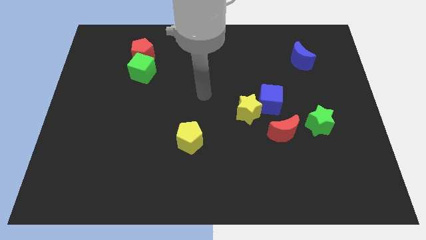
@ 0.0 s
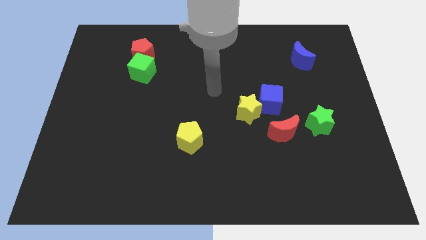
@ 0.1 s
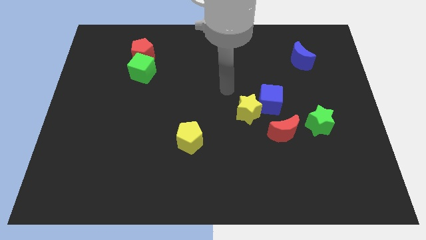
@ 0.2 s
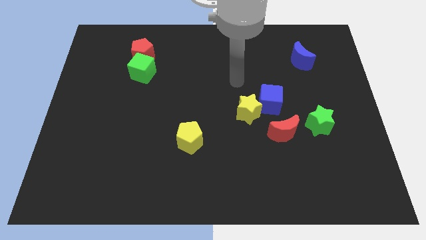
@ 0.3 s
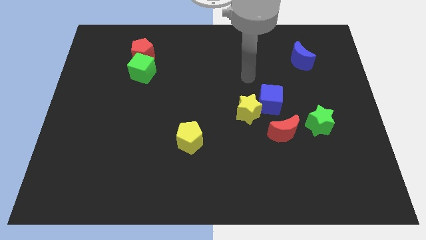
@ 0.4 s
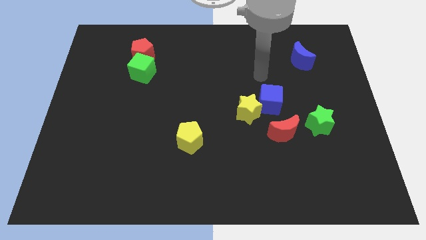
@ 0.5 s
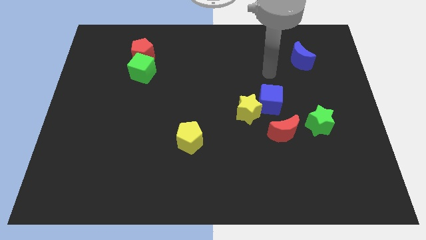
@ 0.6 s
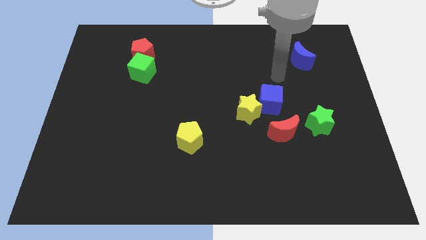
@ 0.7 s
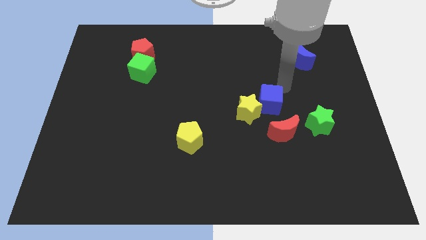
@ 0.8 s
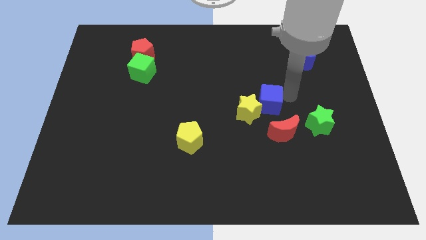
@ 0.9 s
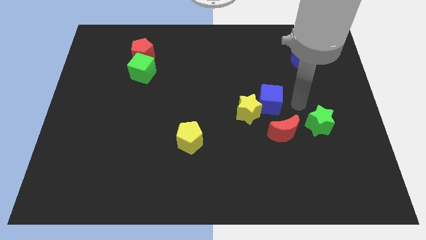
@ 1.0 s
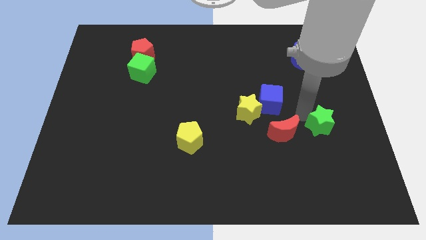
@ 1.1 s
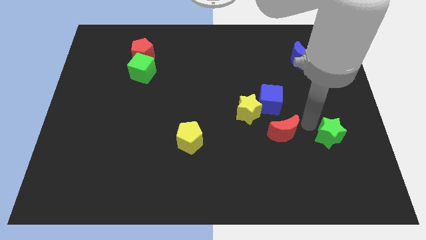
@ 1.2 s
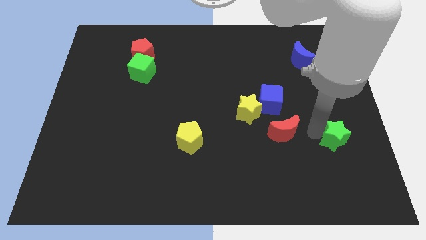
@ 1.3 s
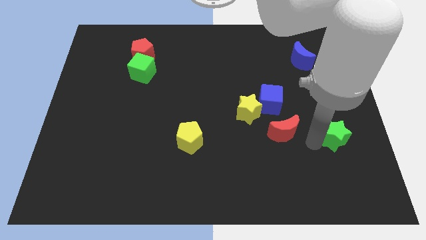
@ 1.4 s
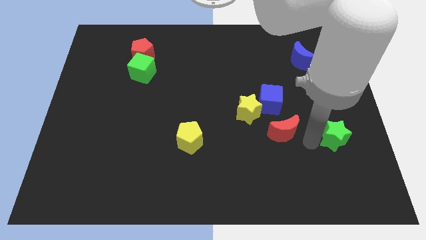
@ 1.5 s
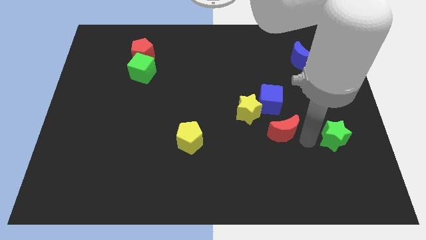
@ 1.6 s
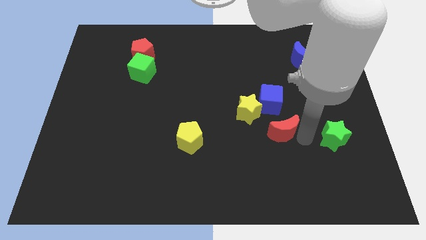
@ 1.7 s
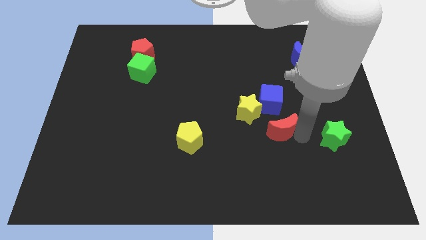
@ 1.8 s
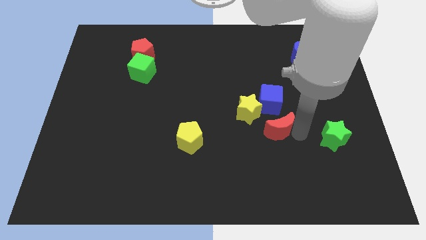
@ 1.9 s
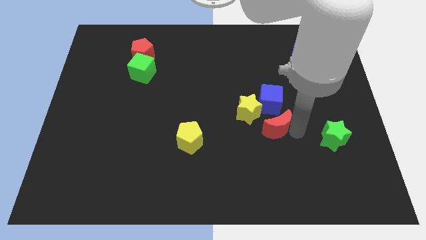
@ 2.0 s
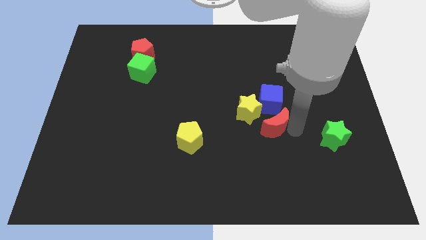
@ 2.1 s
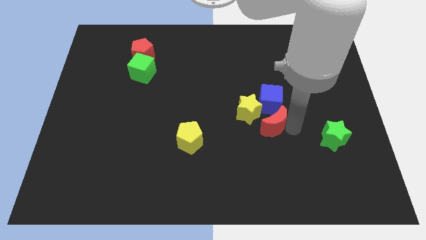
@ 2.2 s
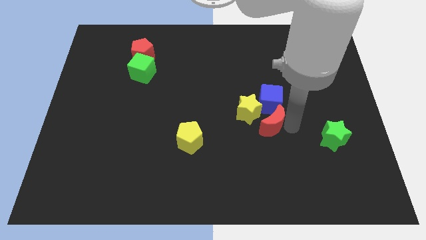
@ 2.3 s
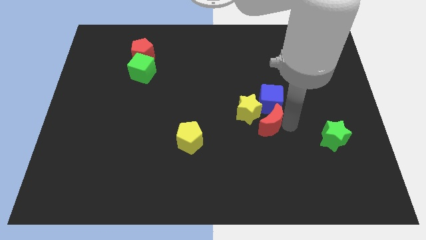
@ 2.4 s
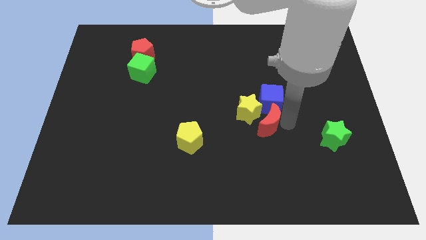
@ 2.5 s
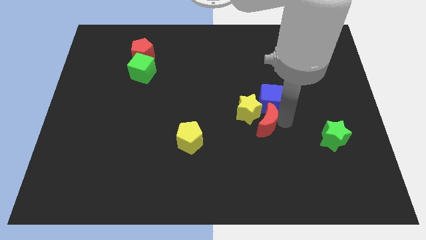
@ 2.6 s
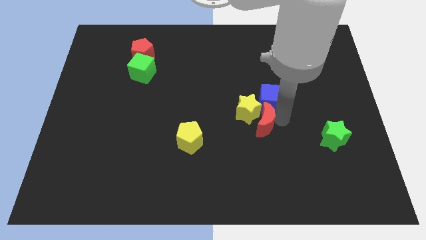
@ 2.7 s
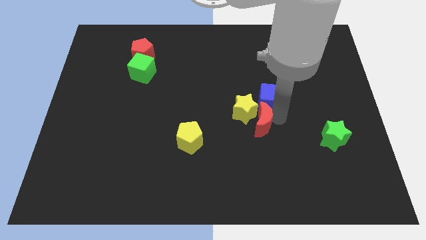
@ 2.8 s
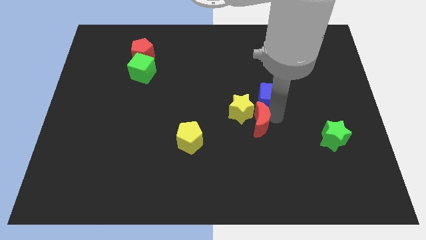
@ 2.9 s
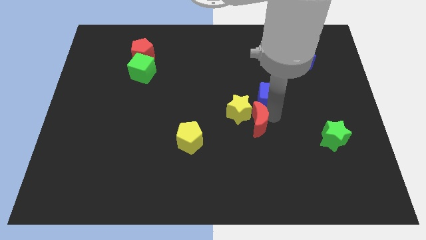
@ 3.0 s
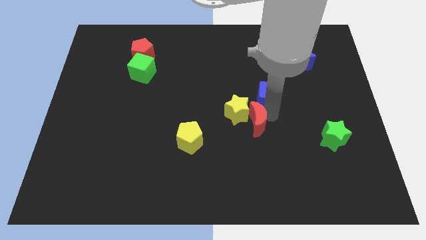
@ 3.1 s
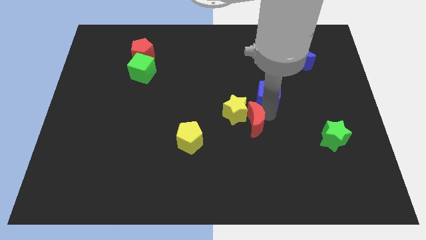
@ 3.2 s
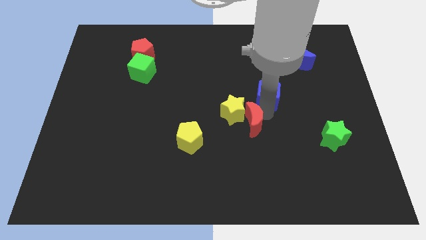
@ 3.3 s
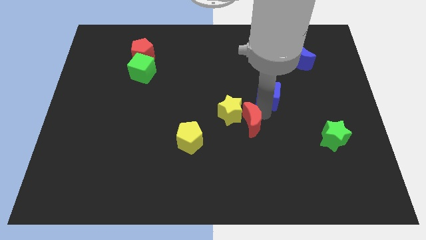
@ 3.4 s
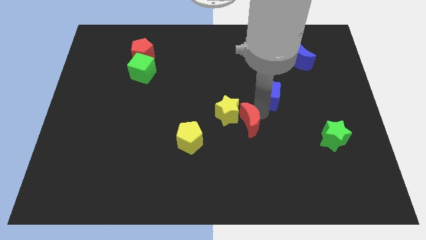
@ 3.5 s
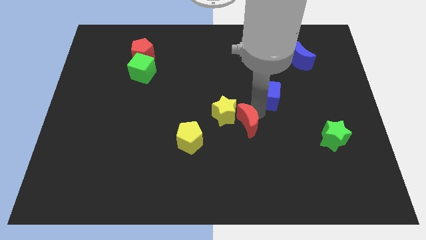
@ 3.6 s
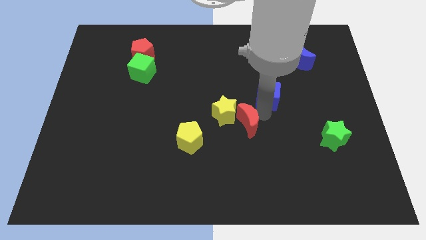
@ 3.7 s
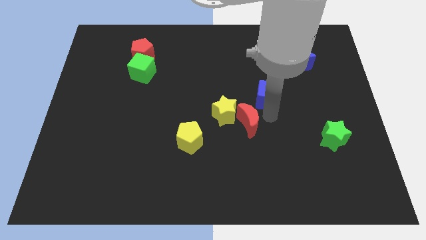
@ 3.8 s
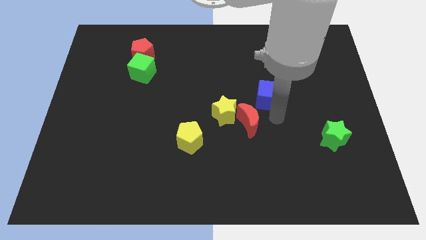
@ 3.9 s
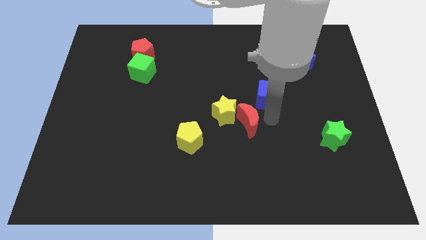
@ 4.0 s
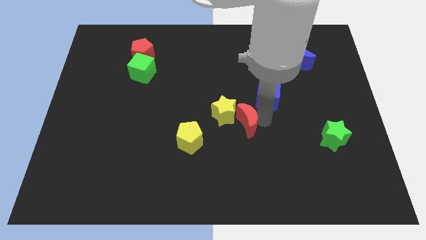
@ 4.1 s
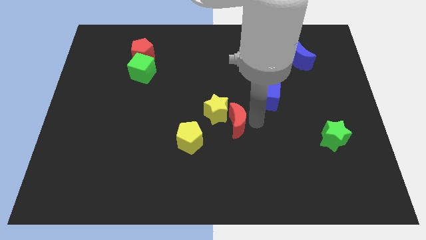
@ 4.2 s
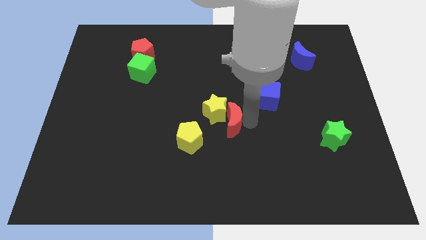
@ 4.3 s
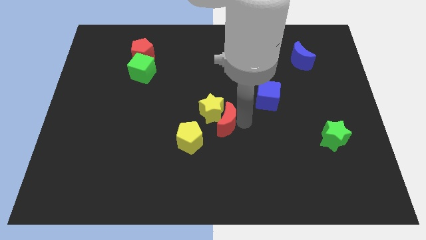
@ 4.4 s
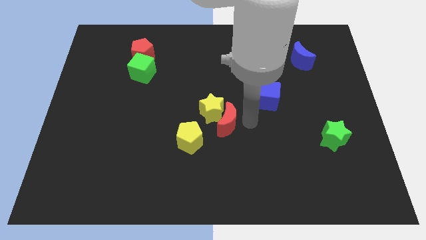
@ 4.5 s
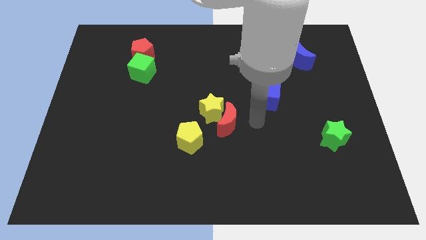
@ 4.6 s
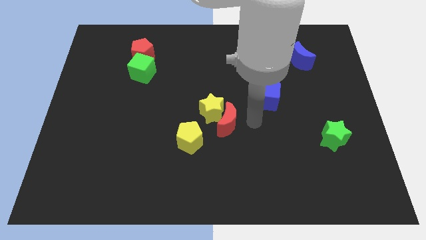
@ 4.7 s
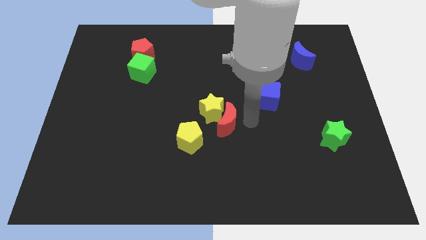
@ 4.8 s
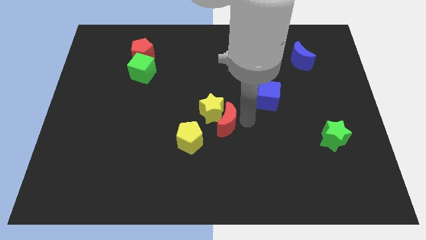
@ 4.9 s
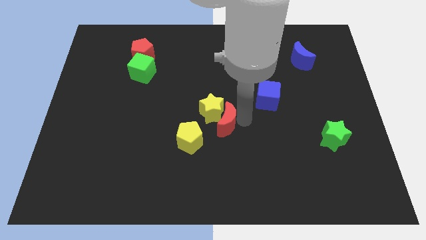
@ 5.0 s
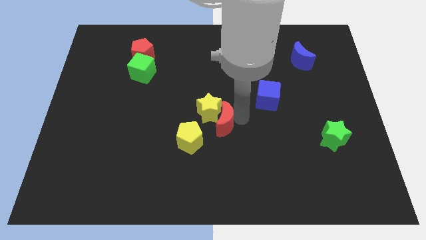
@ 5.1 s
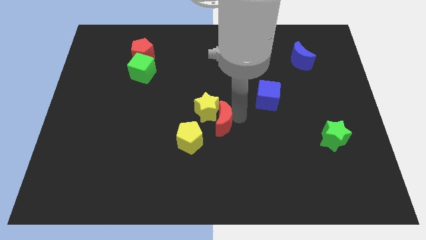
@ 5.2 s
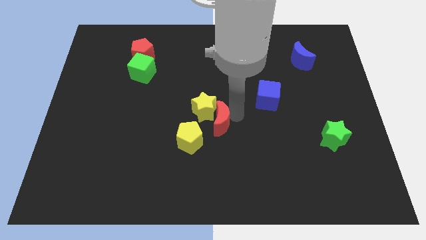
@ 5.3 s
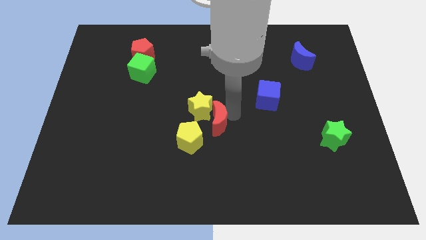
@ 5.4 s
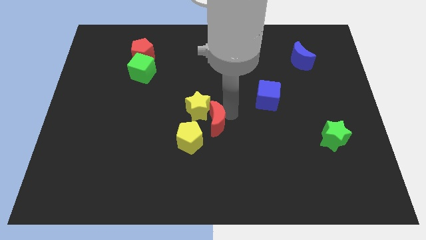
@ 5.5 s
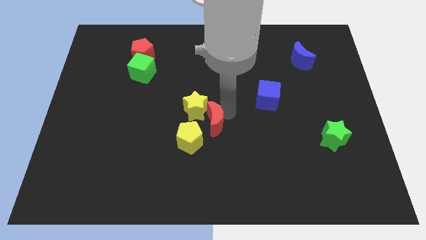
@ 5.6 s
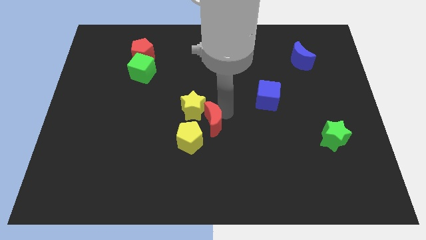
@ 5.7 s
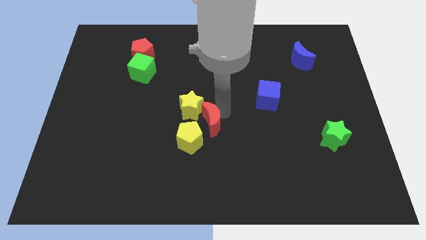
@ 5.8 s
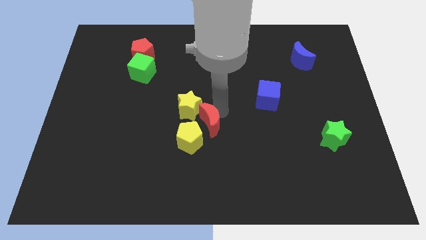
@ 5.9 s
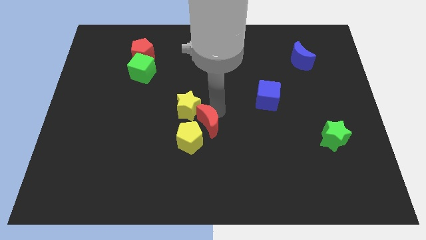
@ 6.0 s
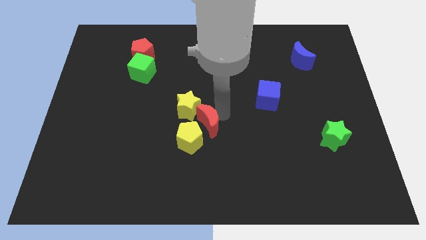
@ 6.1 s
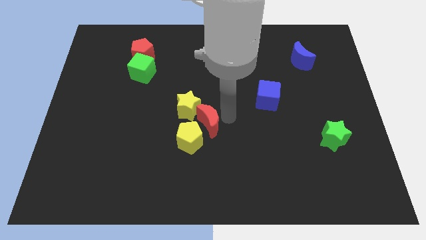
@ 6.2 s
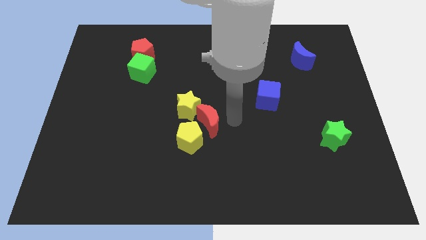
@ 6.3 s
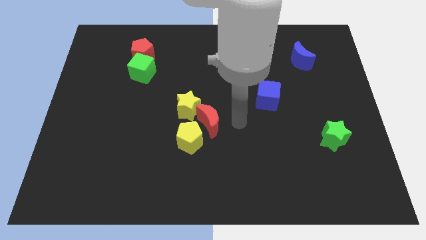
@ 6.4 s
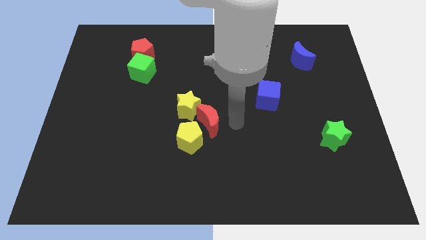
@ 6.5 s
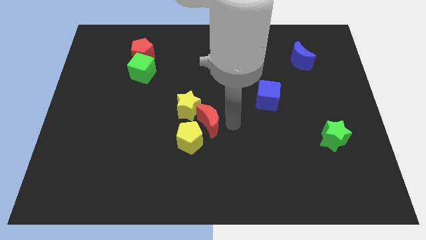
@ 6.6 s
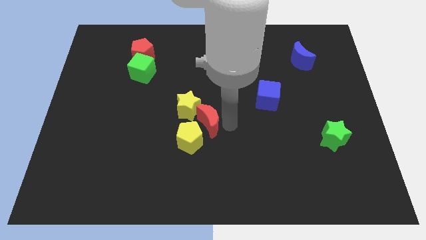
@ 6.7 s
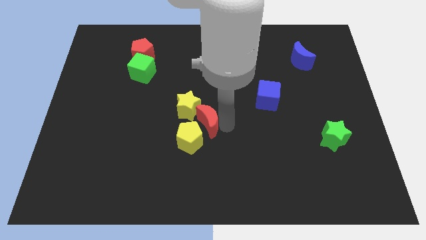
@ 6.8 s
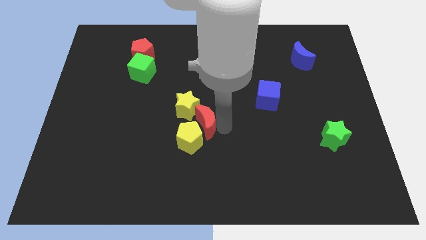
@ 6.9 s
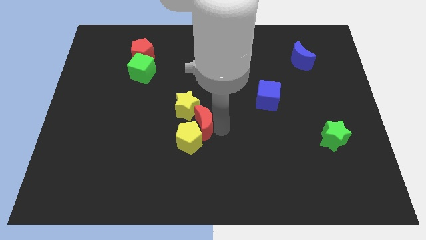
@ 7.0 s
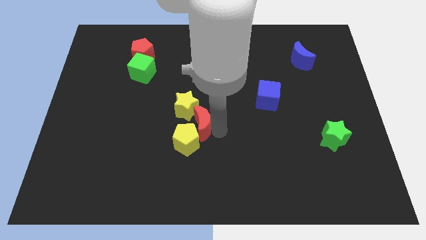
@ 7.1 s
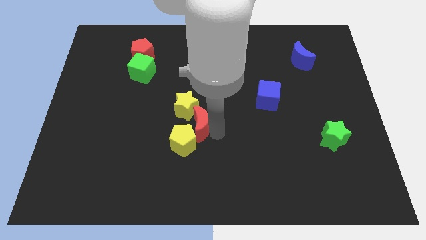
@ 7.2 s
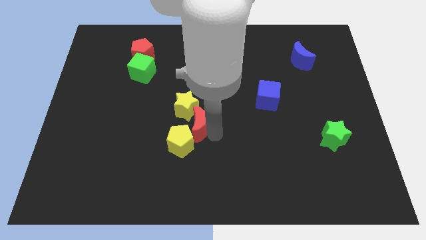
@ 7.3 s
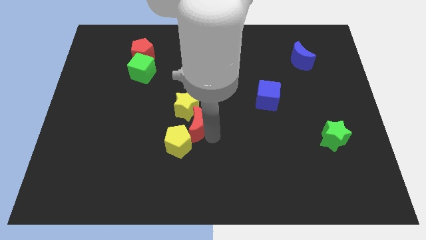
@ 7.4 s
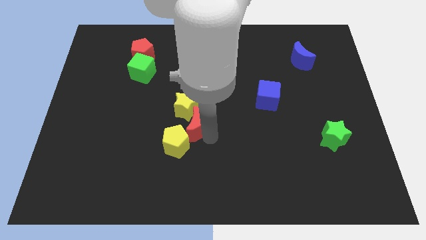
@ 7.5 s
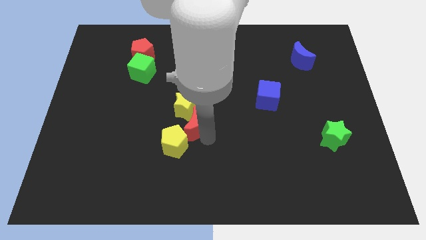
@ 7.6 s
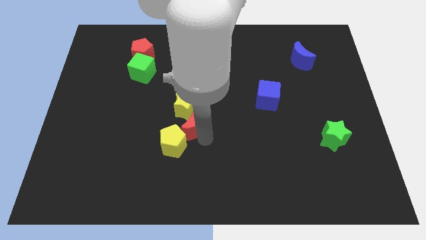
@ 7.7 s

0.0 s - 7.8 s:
push the red moon left

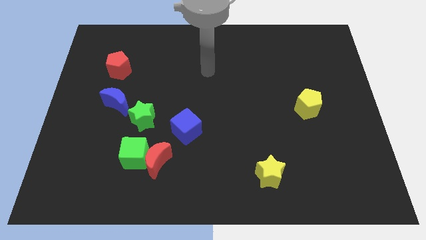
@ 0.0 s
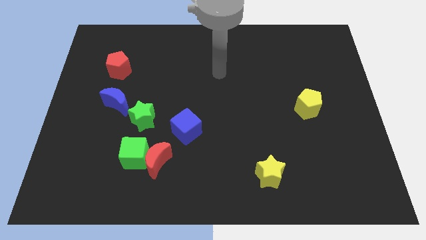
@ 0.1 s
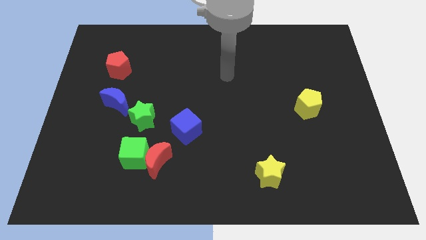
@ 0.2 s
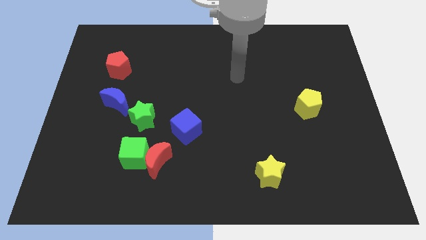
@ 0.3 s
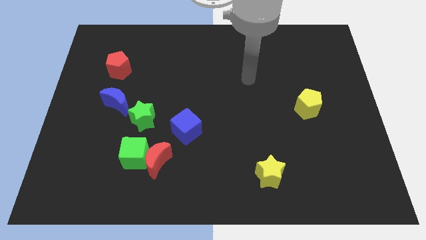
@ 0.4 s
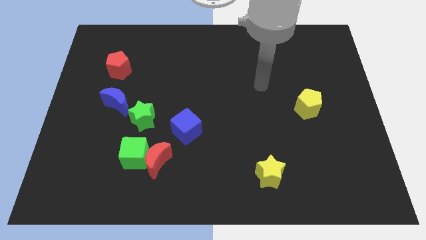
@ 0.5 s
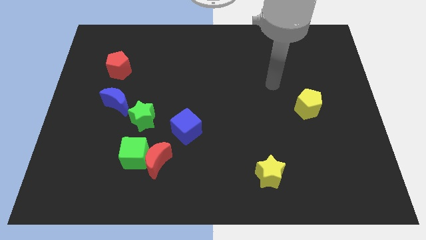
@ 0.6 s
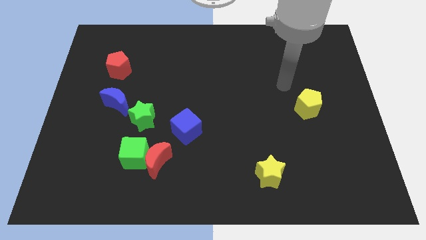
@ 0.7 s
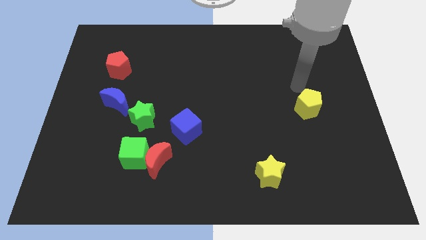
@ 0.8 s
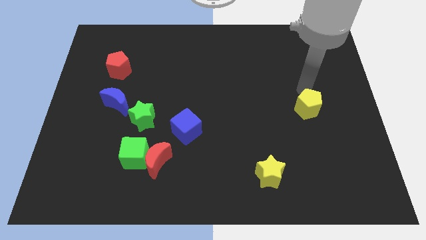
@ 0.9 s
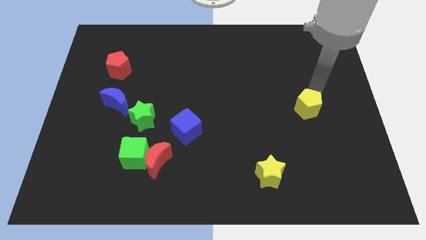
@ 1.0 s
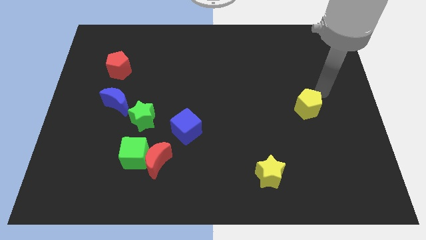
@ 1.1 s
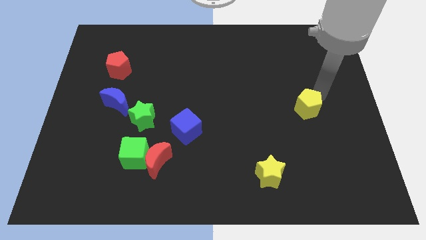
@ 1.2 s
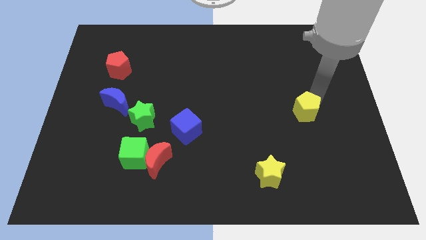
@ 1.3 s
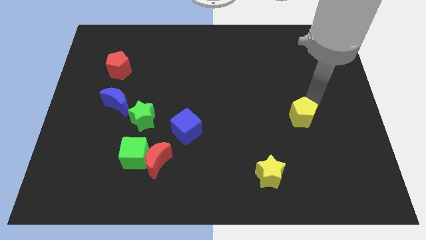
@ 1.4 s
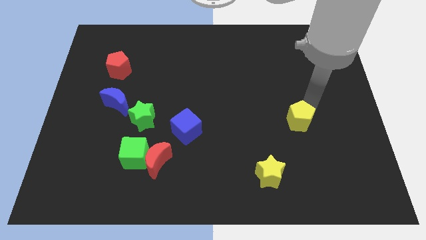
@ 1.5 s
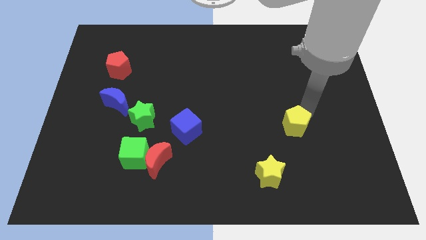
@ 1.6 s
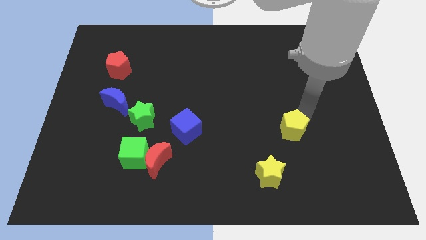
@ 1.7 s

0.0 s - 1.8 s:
slightly move the yellow pentagon diagonally downwards and to the left
